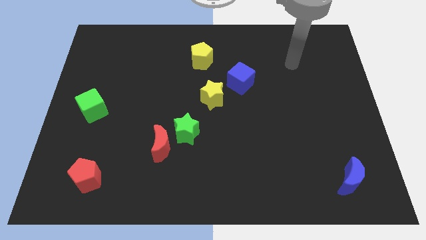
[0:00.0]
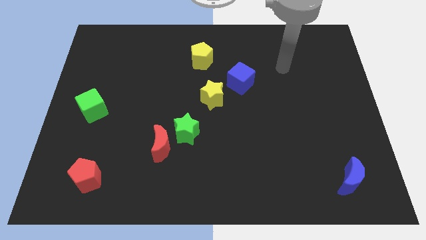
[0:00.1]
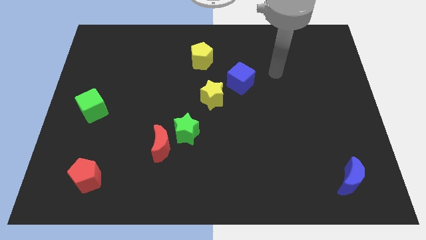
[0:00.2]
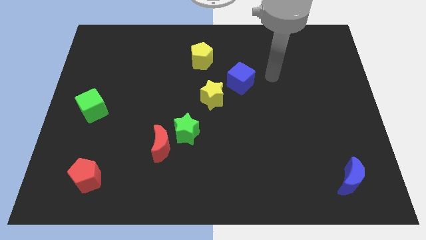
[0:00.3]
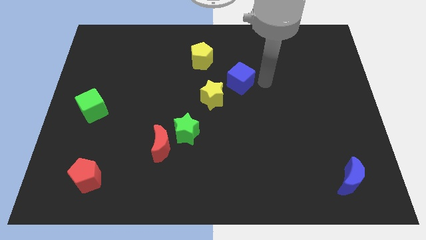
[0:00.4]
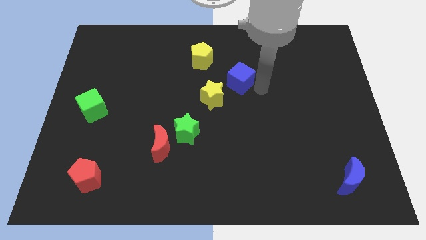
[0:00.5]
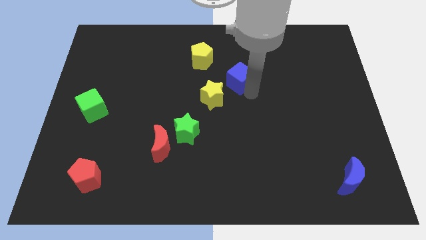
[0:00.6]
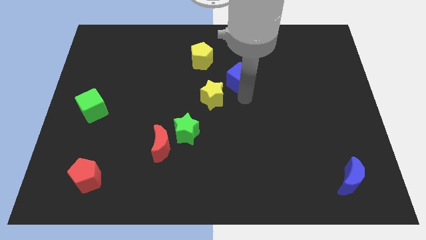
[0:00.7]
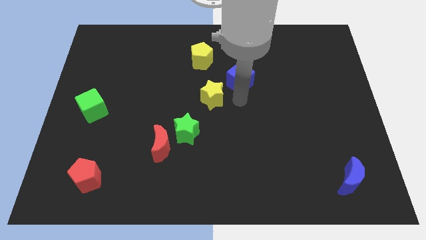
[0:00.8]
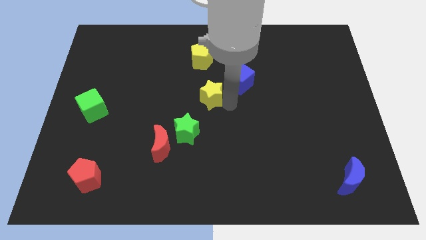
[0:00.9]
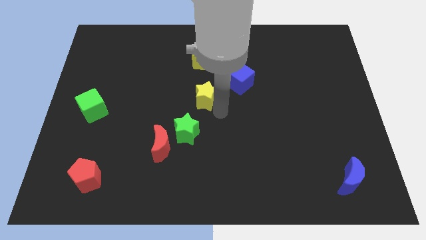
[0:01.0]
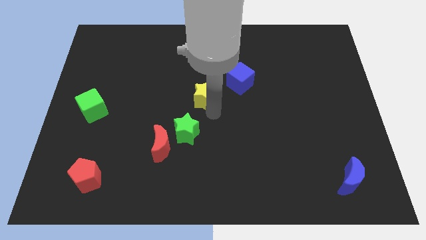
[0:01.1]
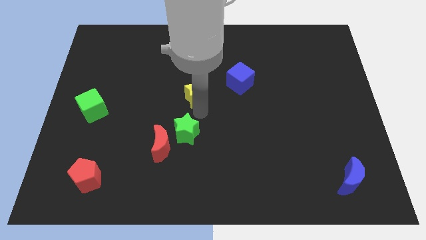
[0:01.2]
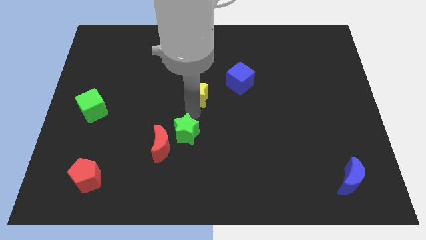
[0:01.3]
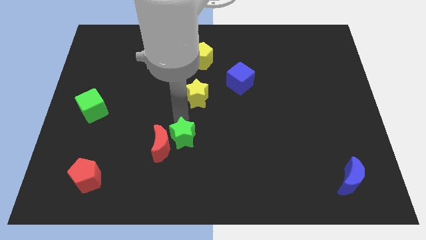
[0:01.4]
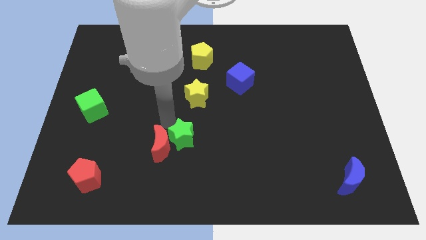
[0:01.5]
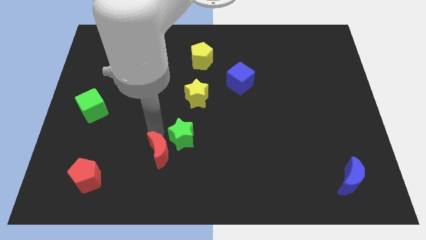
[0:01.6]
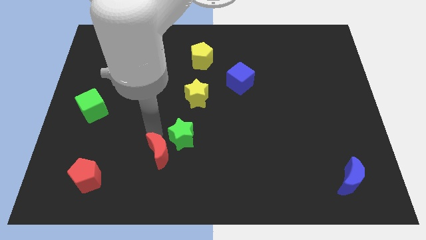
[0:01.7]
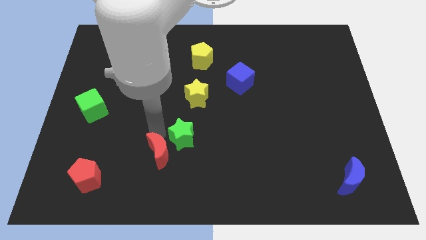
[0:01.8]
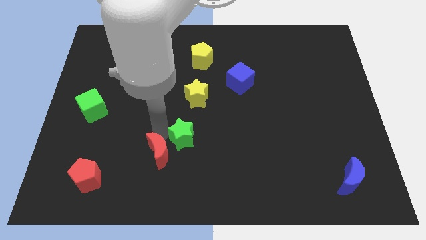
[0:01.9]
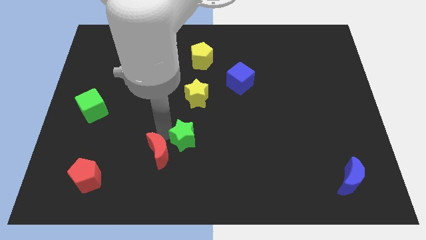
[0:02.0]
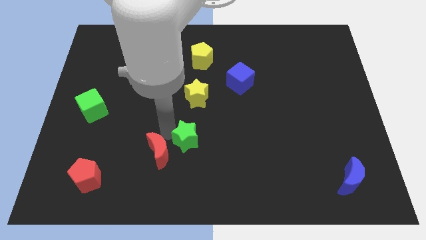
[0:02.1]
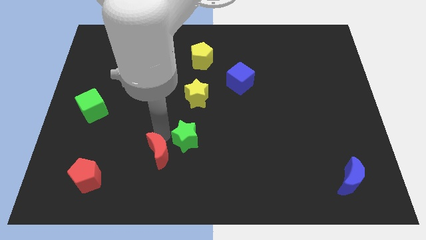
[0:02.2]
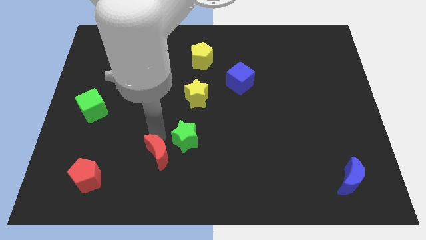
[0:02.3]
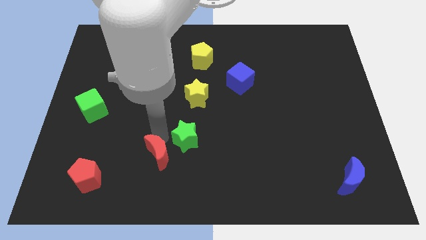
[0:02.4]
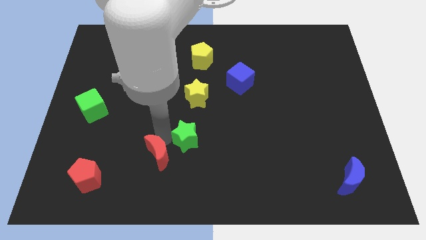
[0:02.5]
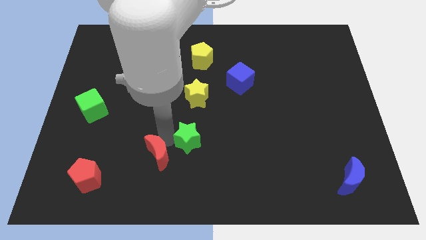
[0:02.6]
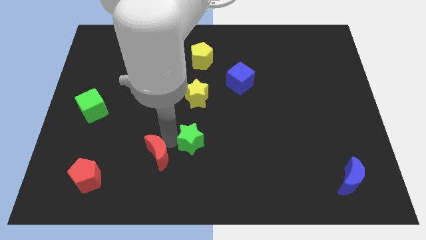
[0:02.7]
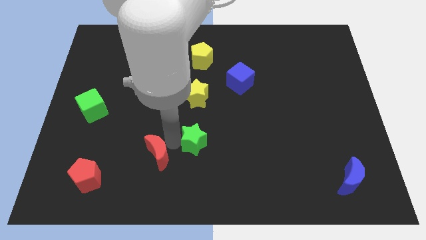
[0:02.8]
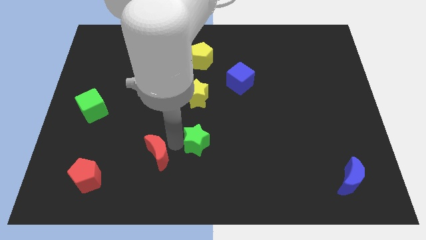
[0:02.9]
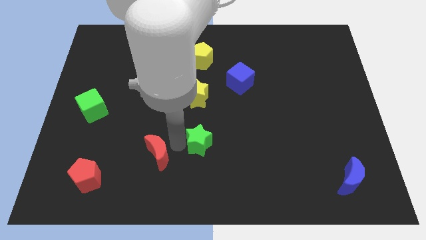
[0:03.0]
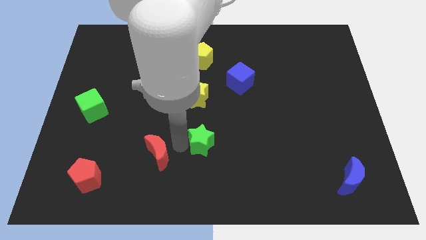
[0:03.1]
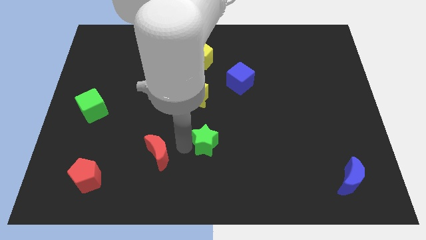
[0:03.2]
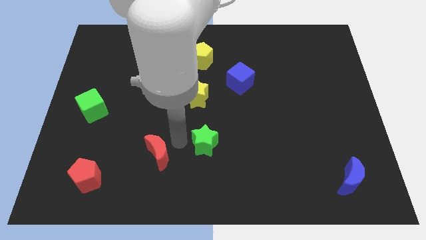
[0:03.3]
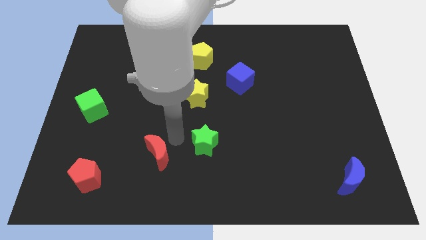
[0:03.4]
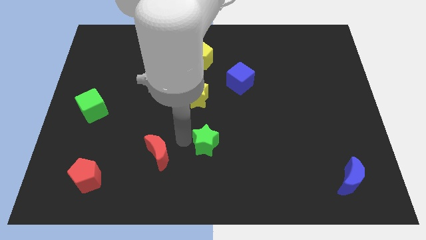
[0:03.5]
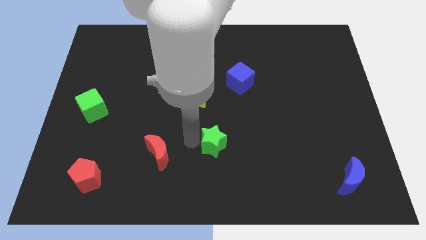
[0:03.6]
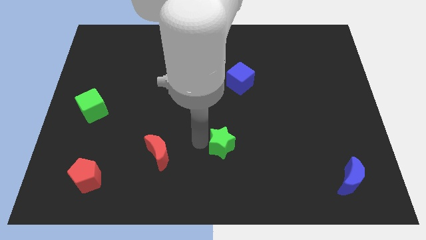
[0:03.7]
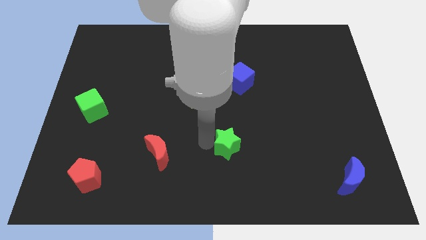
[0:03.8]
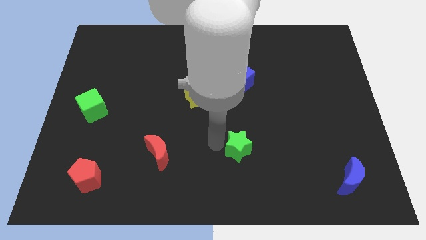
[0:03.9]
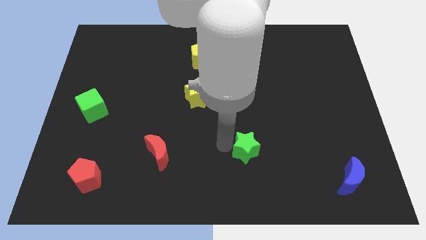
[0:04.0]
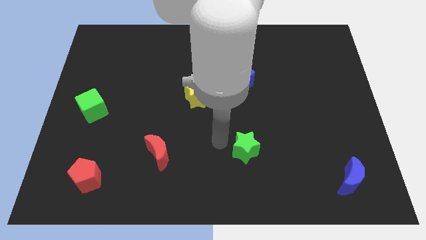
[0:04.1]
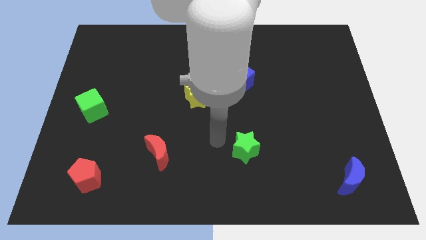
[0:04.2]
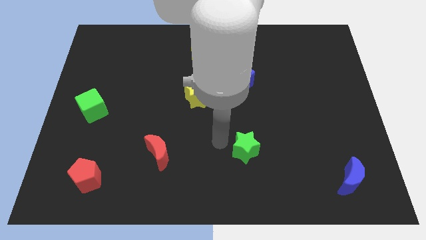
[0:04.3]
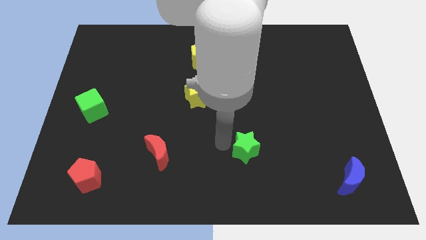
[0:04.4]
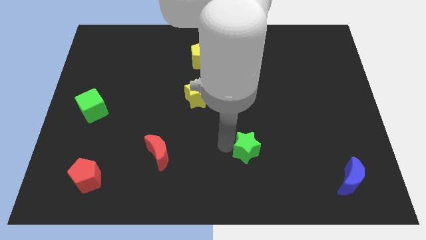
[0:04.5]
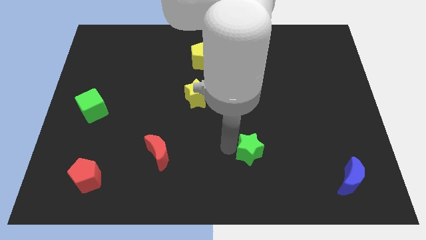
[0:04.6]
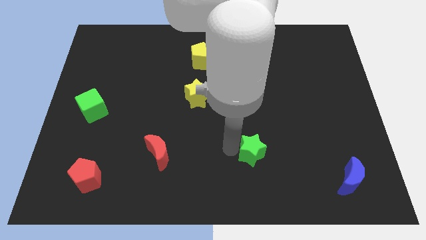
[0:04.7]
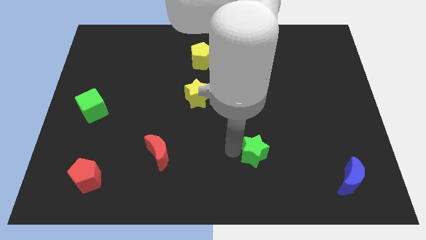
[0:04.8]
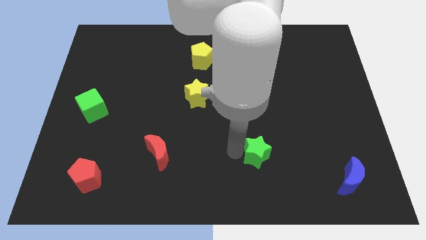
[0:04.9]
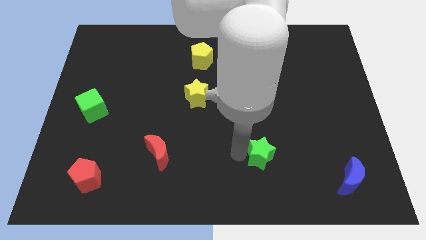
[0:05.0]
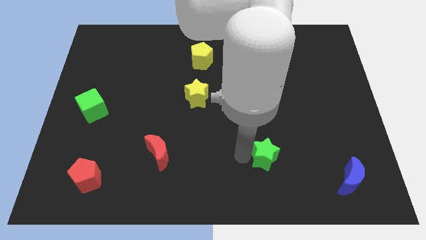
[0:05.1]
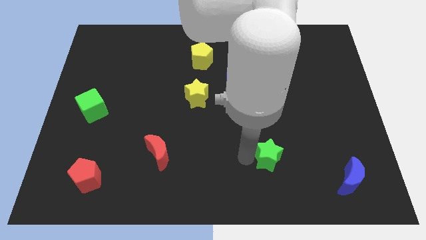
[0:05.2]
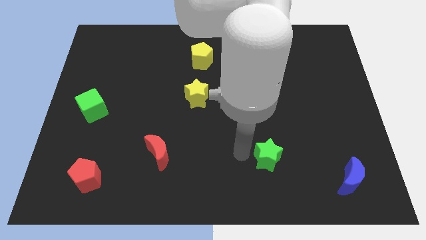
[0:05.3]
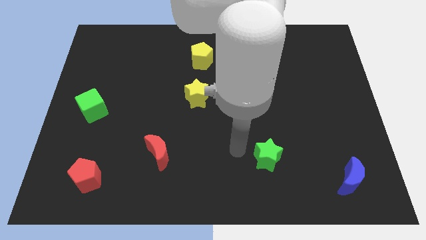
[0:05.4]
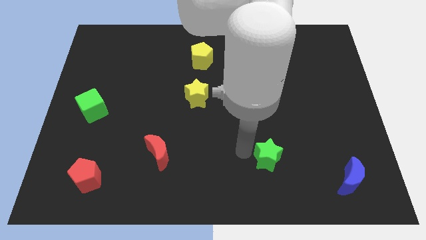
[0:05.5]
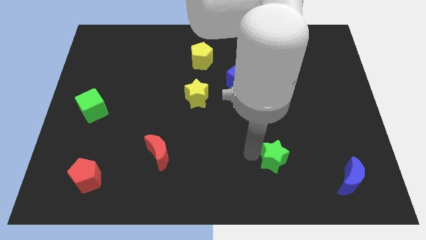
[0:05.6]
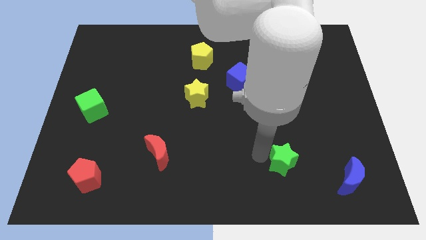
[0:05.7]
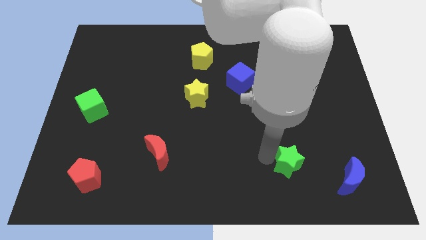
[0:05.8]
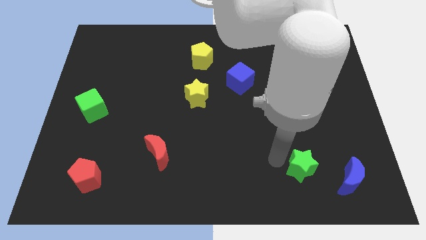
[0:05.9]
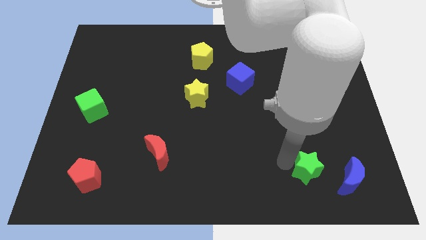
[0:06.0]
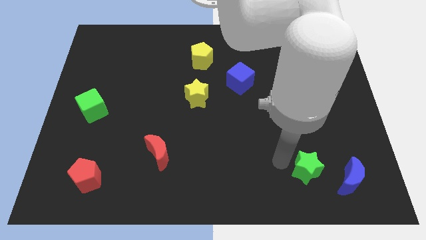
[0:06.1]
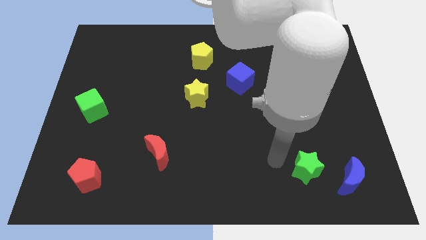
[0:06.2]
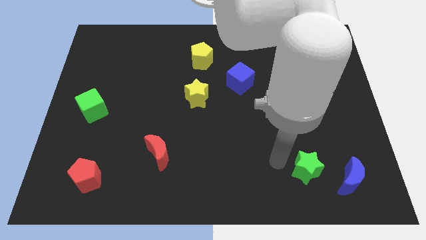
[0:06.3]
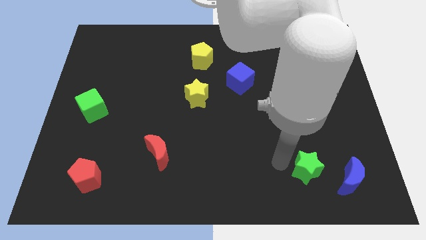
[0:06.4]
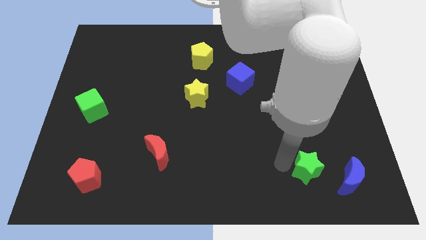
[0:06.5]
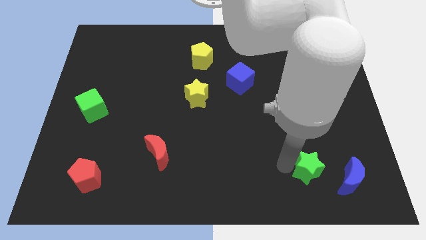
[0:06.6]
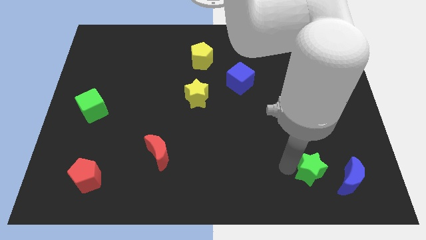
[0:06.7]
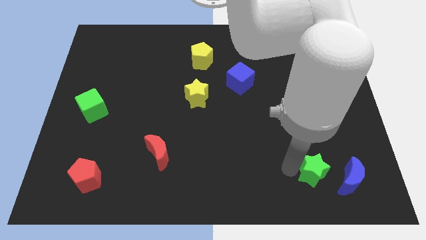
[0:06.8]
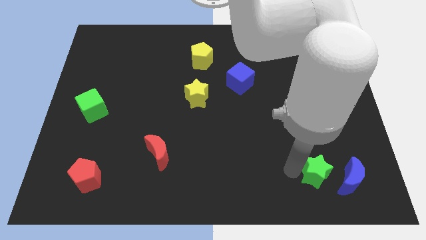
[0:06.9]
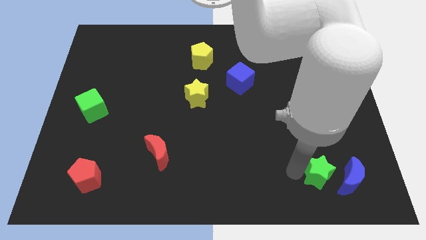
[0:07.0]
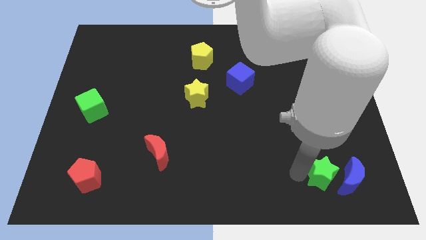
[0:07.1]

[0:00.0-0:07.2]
push the green star to the blue moon
